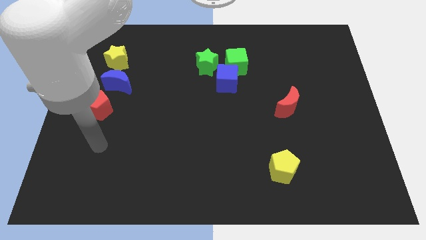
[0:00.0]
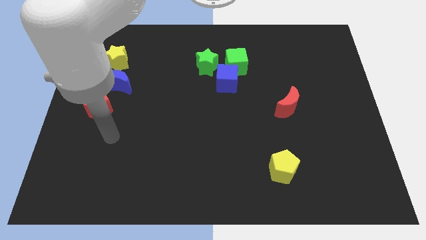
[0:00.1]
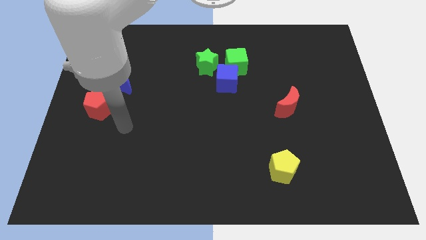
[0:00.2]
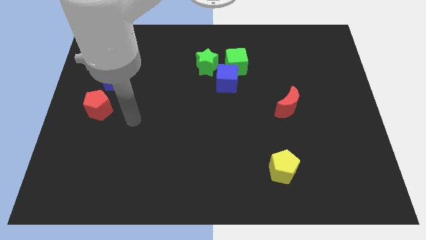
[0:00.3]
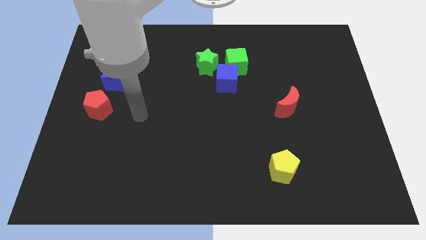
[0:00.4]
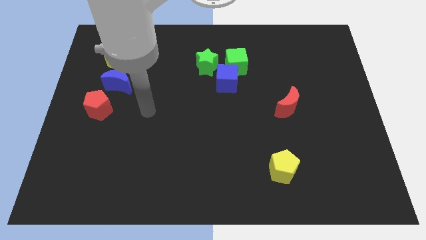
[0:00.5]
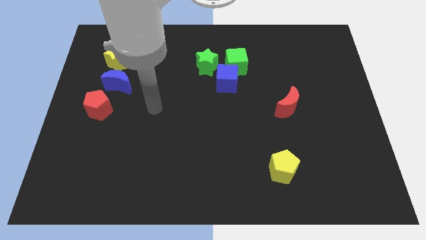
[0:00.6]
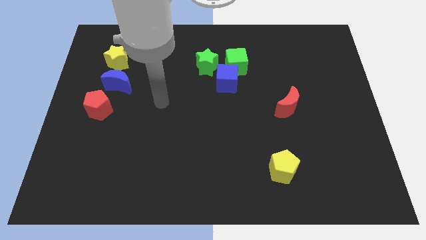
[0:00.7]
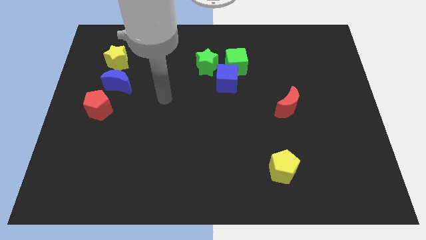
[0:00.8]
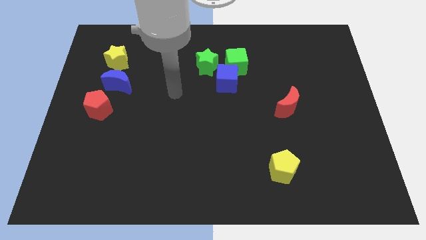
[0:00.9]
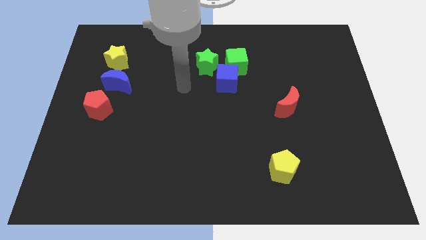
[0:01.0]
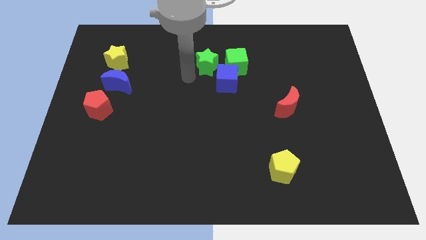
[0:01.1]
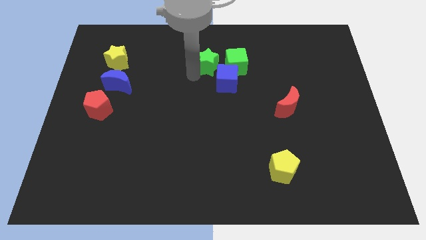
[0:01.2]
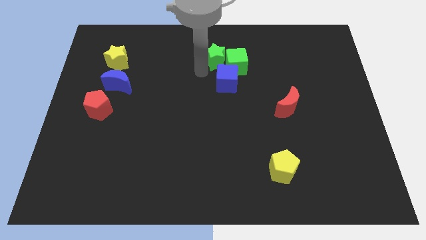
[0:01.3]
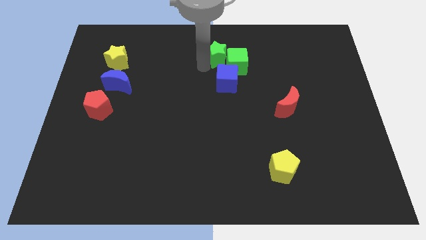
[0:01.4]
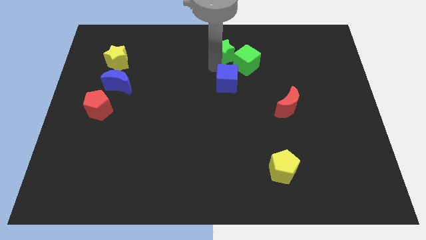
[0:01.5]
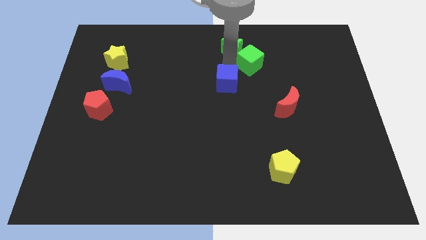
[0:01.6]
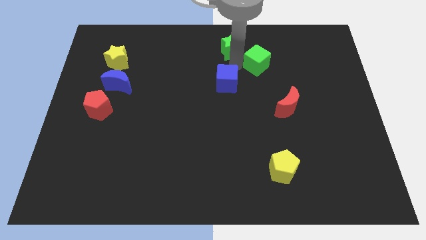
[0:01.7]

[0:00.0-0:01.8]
pull the blue cube apart from the green cube and green star

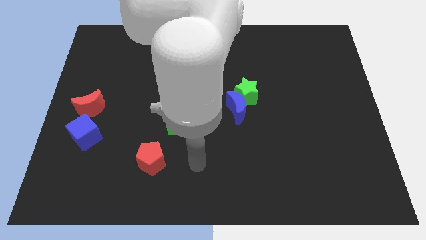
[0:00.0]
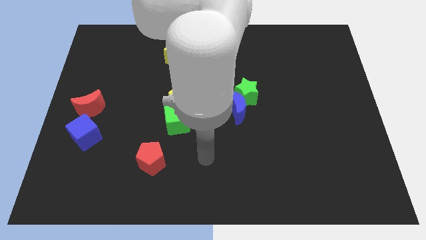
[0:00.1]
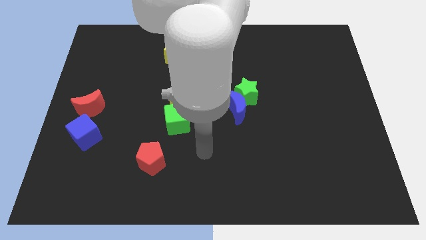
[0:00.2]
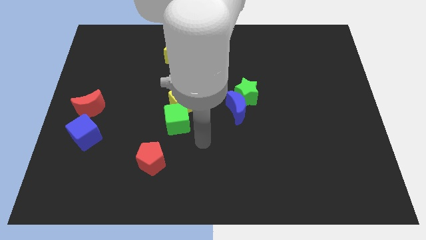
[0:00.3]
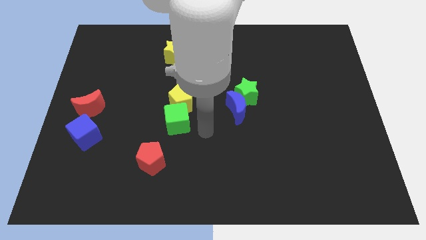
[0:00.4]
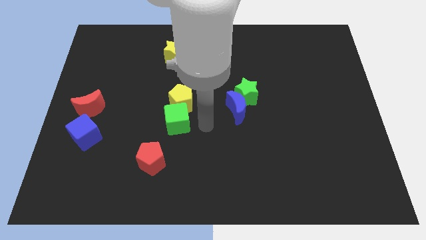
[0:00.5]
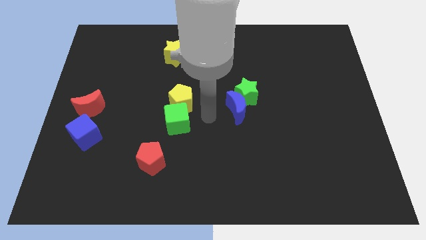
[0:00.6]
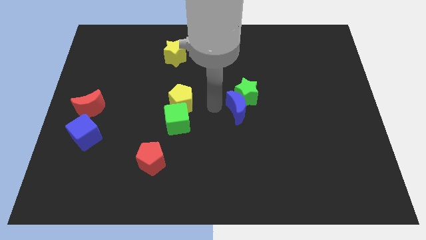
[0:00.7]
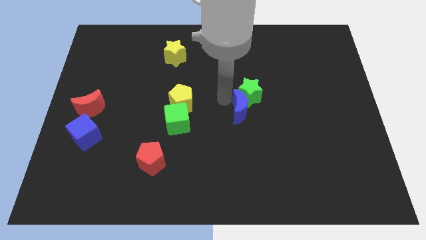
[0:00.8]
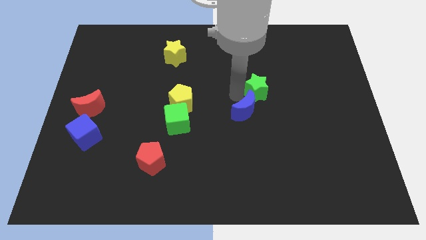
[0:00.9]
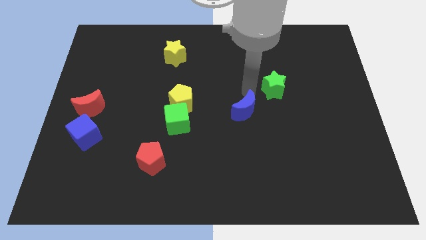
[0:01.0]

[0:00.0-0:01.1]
separate the blue moon from the green star

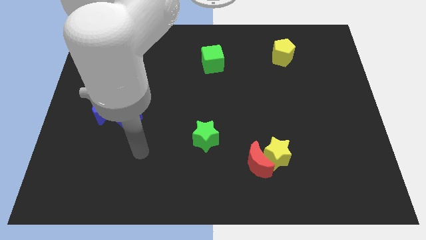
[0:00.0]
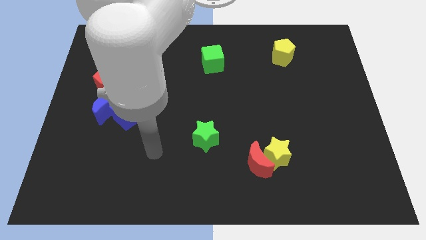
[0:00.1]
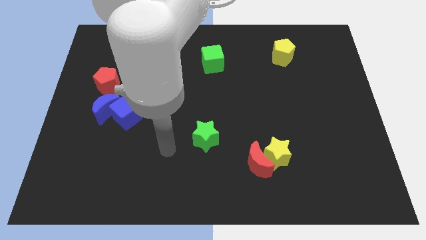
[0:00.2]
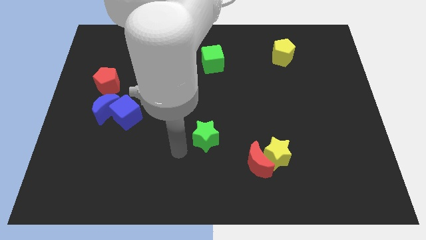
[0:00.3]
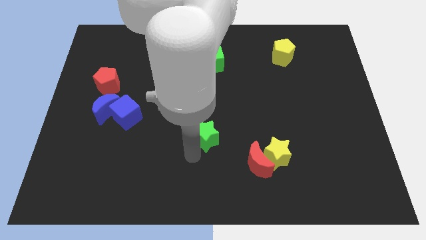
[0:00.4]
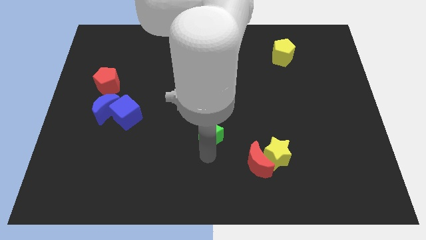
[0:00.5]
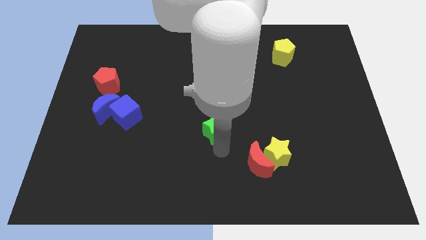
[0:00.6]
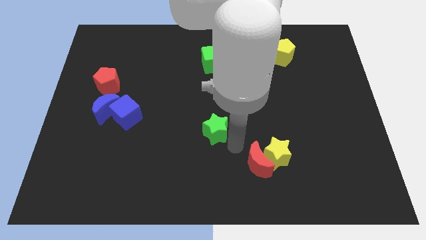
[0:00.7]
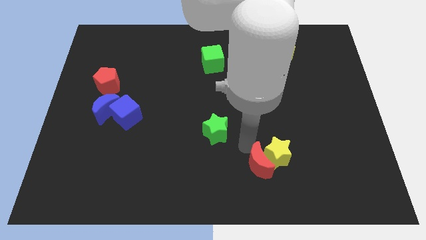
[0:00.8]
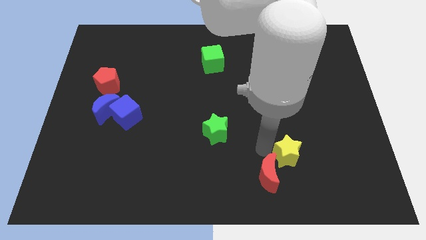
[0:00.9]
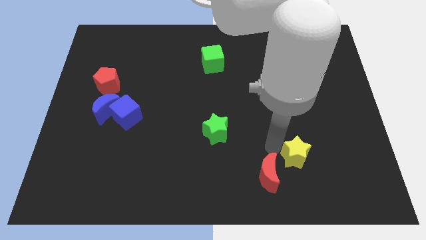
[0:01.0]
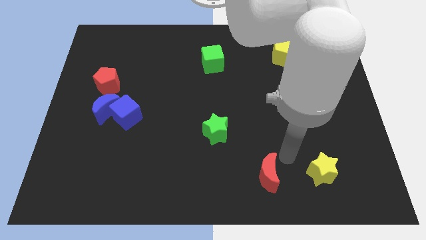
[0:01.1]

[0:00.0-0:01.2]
move the red moon away from the yellow star

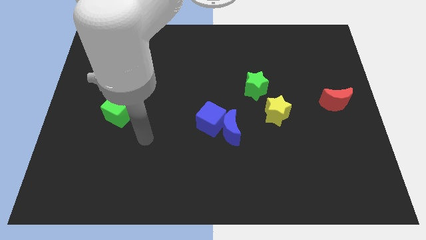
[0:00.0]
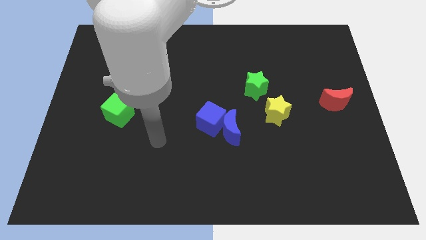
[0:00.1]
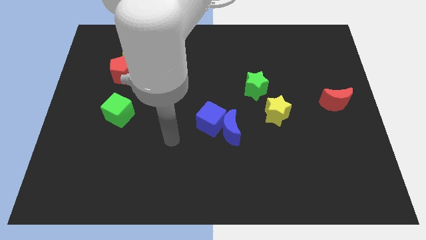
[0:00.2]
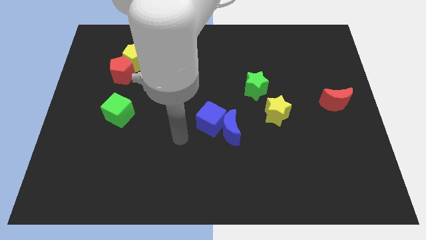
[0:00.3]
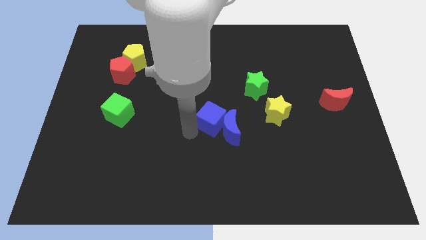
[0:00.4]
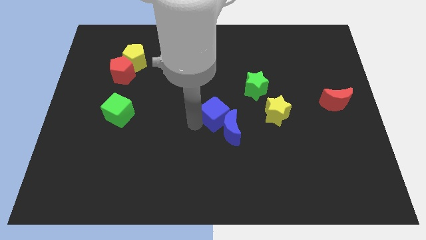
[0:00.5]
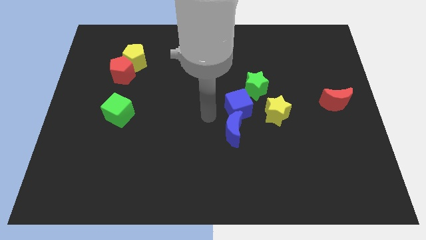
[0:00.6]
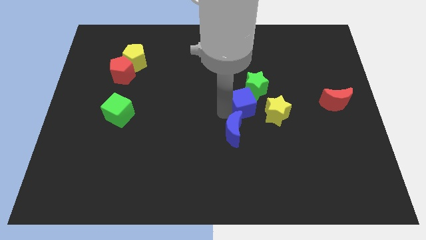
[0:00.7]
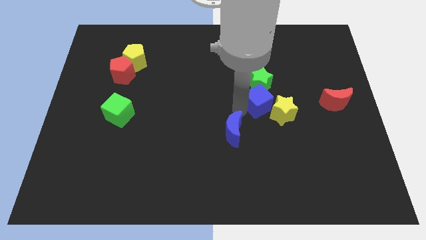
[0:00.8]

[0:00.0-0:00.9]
pull the blue moon apart from the blue cube

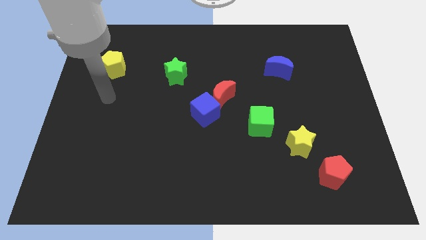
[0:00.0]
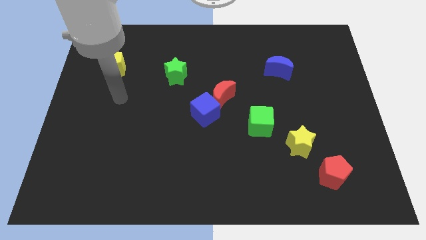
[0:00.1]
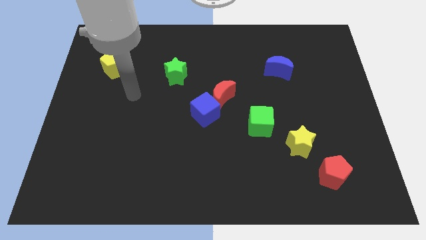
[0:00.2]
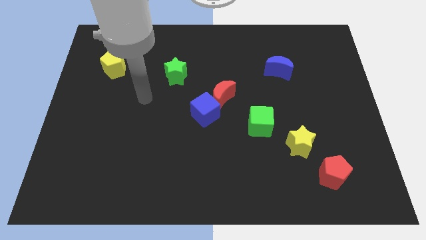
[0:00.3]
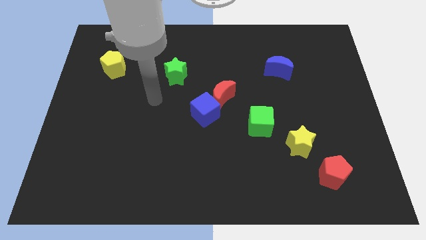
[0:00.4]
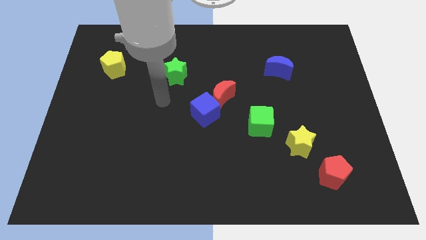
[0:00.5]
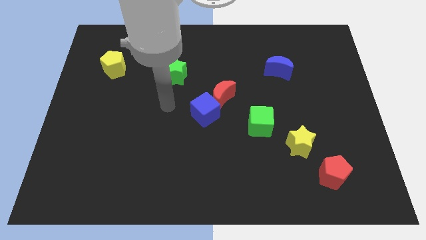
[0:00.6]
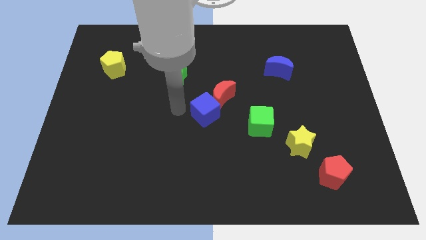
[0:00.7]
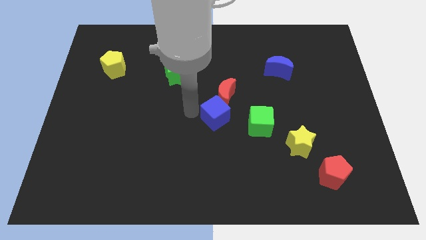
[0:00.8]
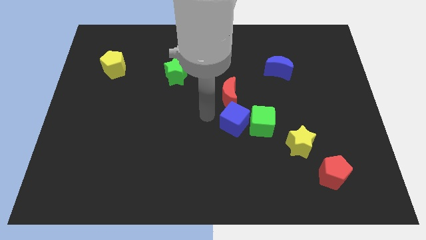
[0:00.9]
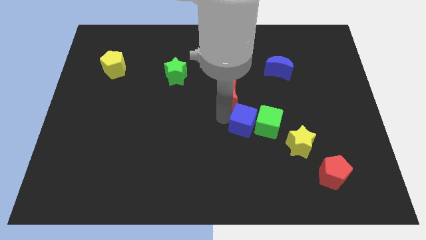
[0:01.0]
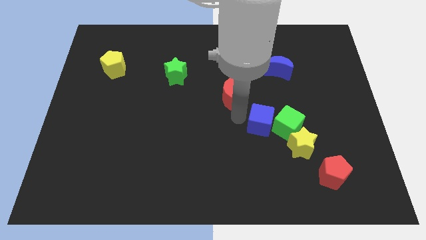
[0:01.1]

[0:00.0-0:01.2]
separate the red moon from the blue cube

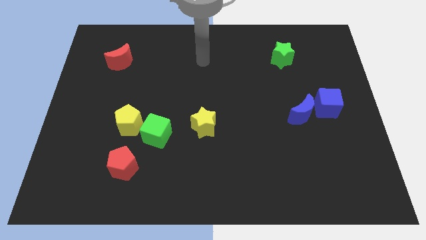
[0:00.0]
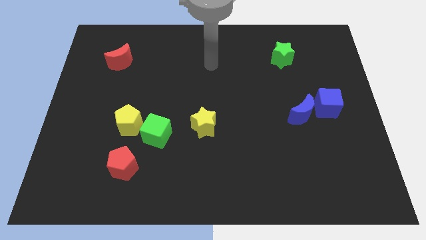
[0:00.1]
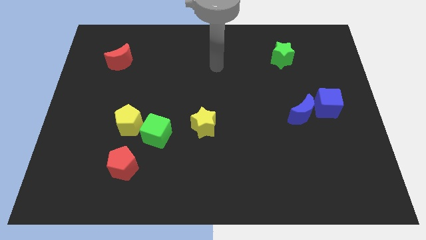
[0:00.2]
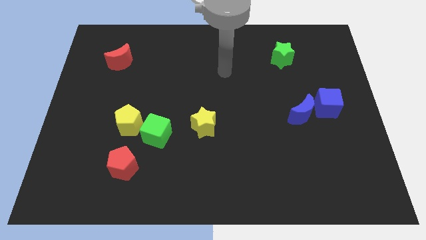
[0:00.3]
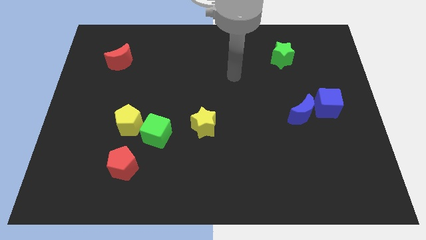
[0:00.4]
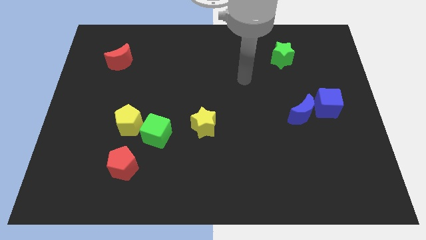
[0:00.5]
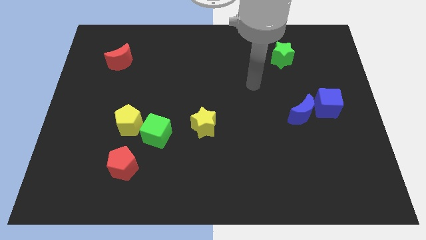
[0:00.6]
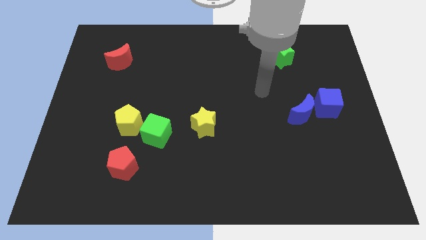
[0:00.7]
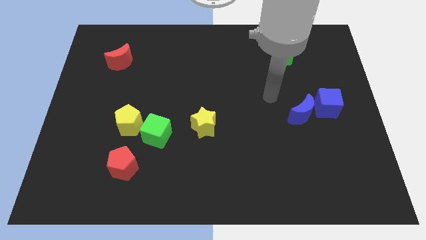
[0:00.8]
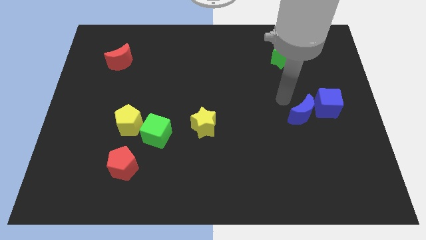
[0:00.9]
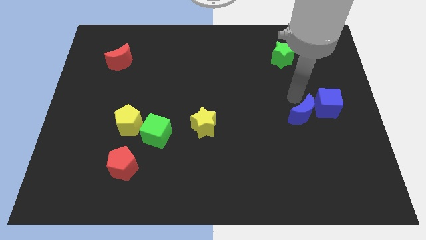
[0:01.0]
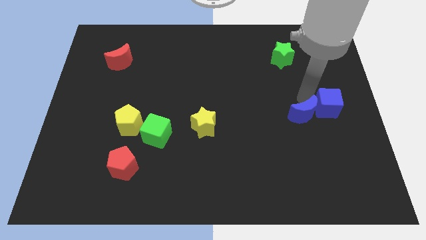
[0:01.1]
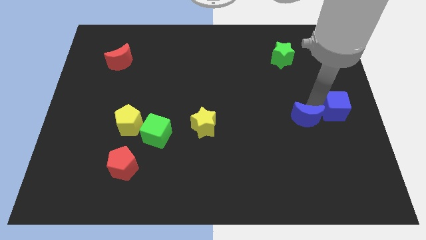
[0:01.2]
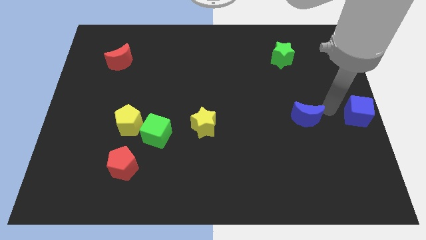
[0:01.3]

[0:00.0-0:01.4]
separate the blue moon from the blue cube

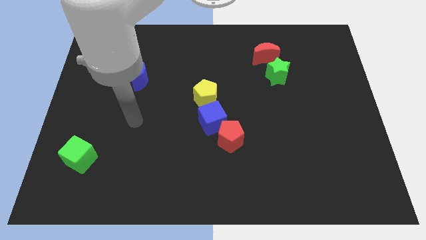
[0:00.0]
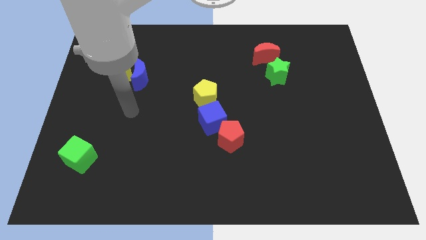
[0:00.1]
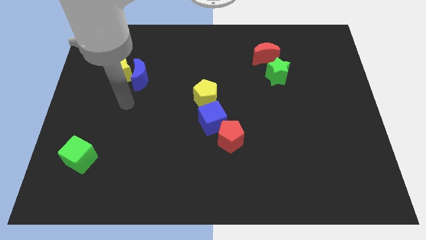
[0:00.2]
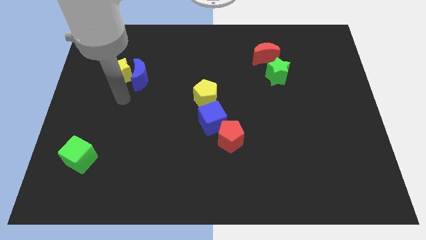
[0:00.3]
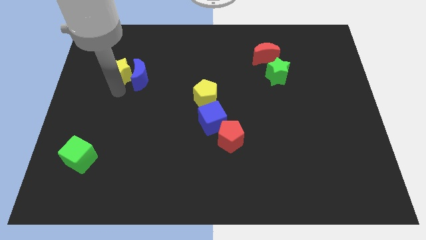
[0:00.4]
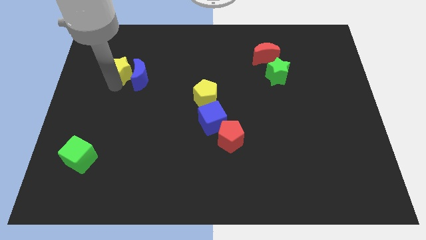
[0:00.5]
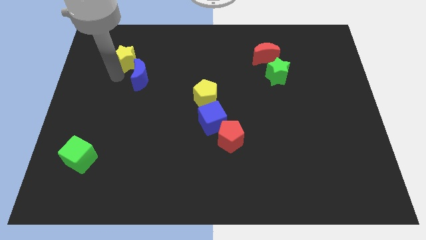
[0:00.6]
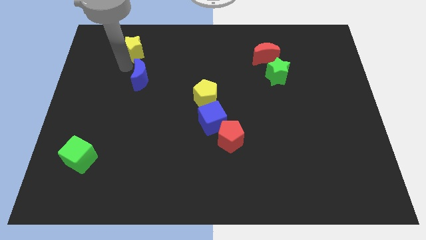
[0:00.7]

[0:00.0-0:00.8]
pull the blue moon apart from the yellow star

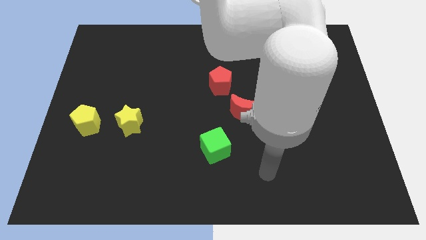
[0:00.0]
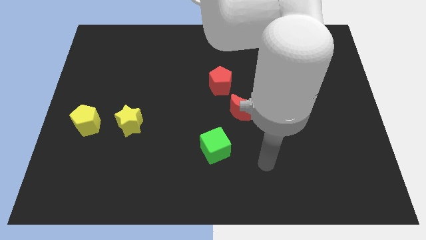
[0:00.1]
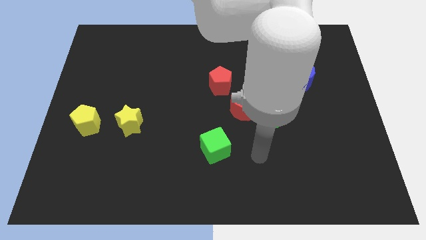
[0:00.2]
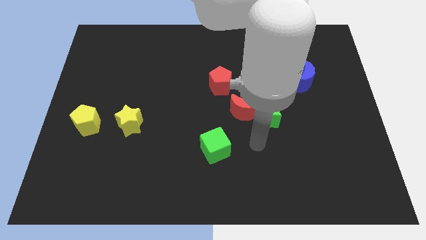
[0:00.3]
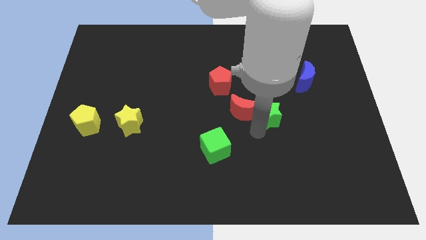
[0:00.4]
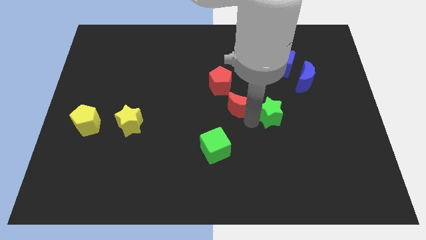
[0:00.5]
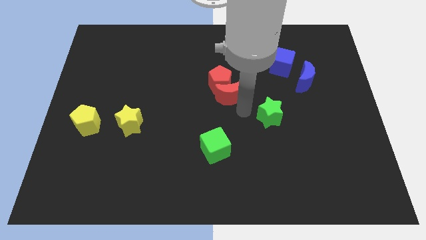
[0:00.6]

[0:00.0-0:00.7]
pull the green star apart from the red moon

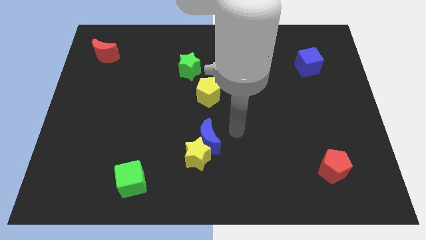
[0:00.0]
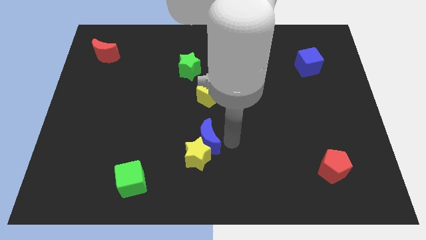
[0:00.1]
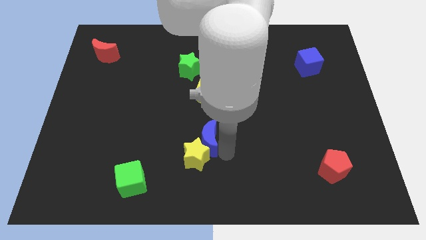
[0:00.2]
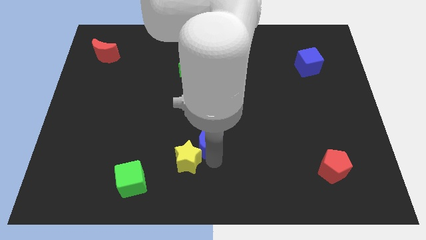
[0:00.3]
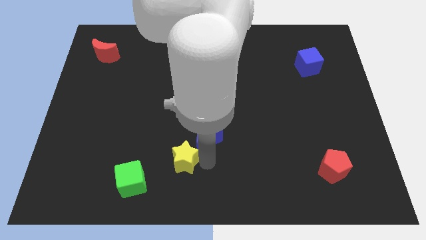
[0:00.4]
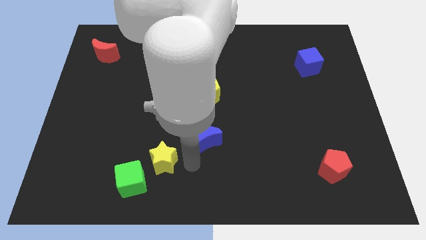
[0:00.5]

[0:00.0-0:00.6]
separate the blue moon from the yellow star
